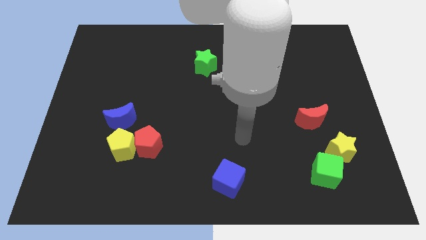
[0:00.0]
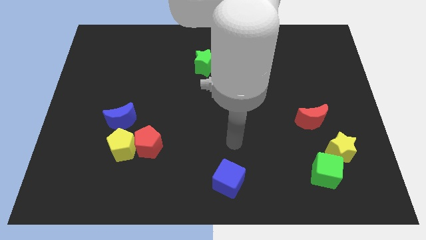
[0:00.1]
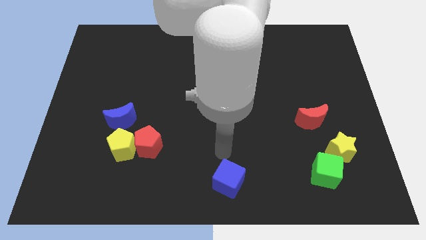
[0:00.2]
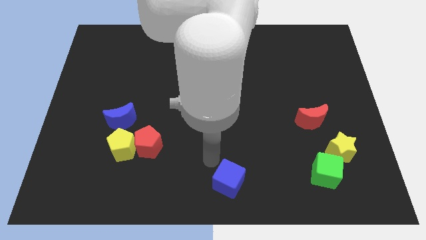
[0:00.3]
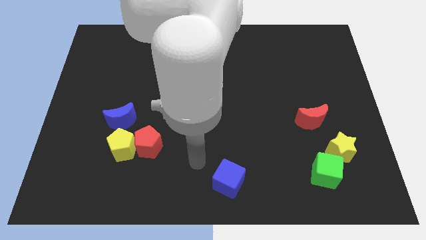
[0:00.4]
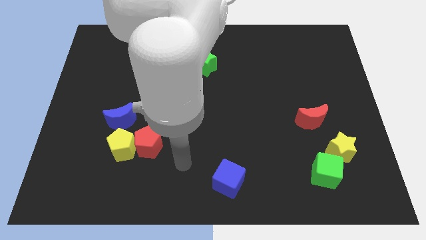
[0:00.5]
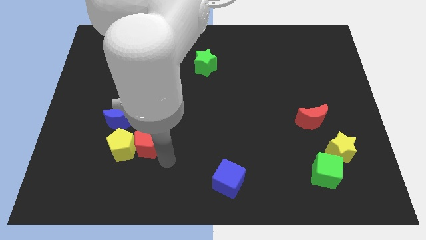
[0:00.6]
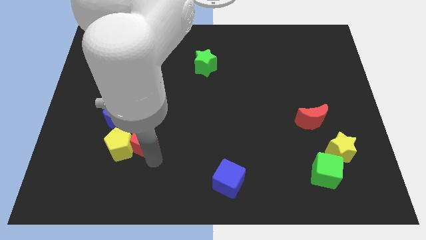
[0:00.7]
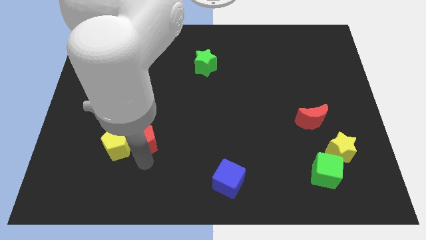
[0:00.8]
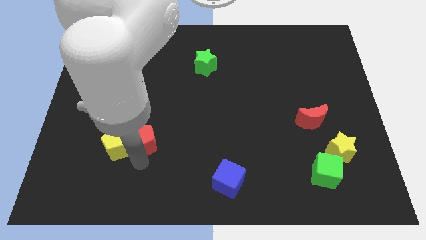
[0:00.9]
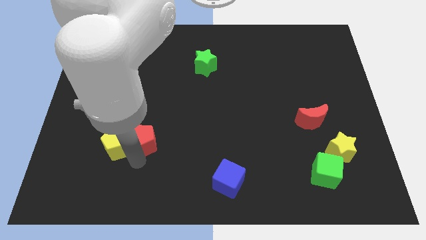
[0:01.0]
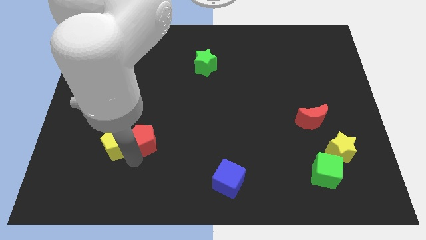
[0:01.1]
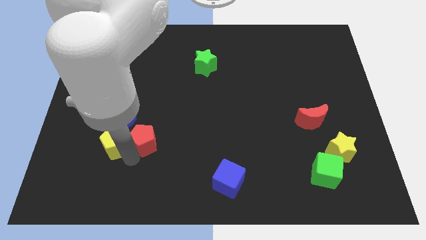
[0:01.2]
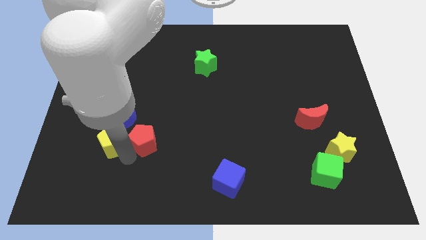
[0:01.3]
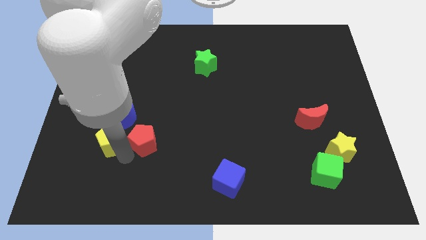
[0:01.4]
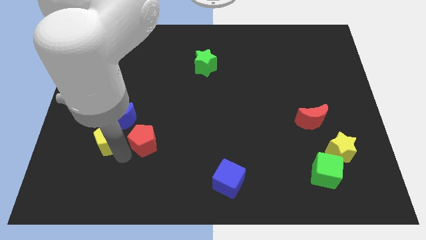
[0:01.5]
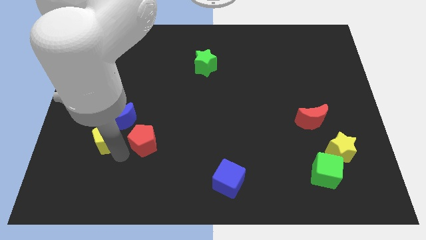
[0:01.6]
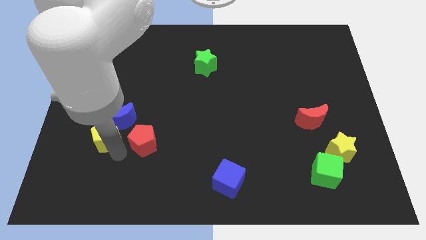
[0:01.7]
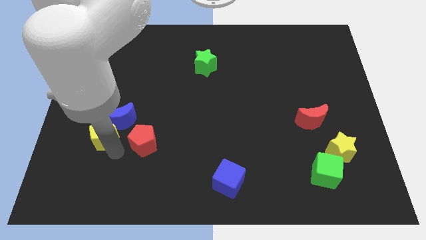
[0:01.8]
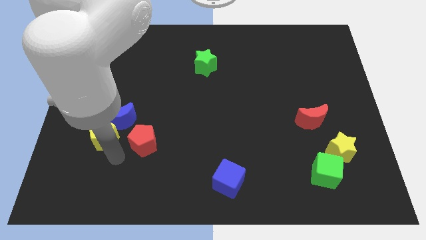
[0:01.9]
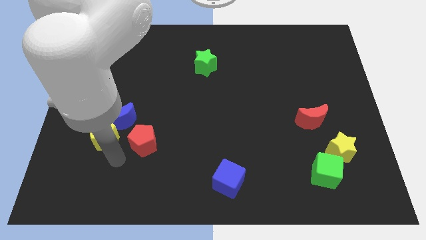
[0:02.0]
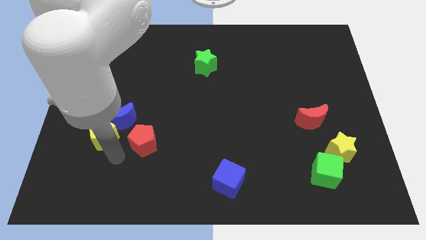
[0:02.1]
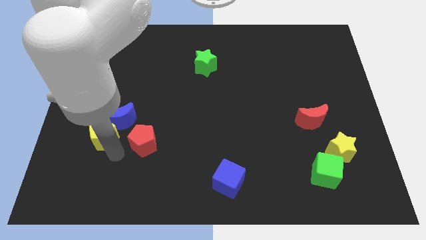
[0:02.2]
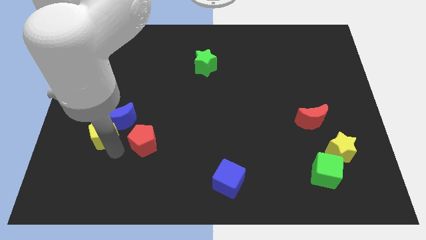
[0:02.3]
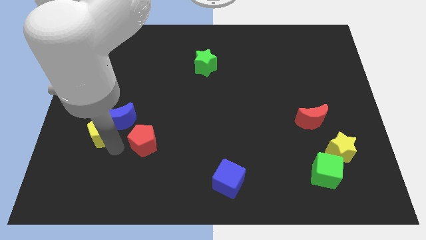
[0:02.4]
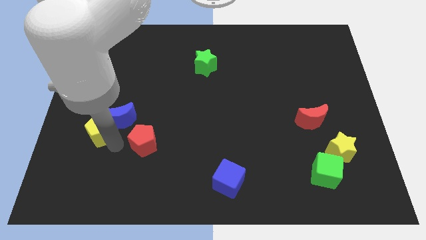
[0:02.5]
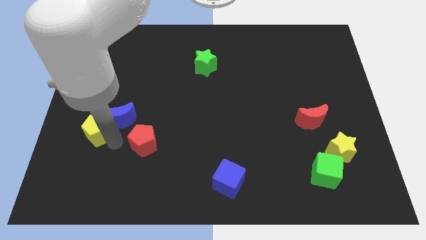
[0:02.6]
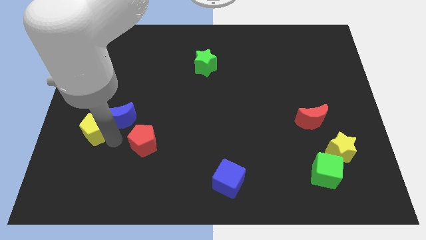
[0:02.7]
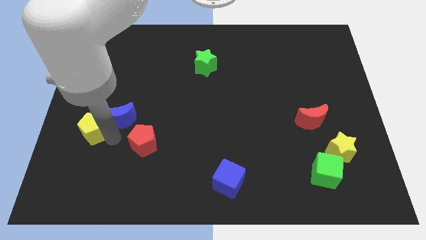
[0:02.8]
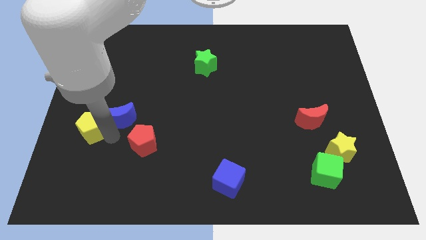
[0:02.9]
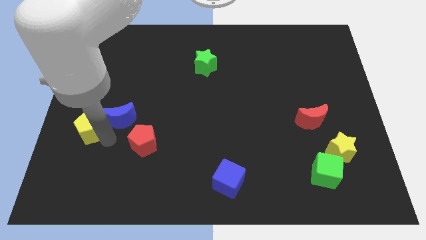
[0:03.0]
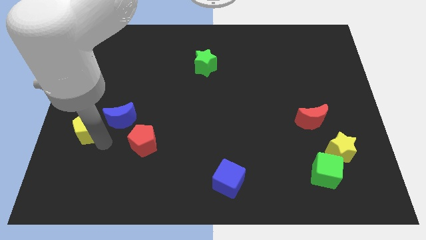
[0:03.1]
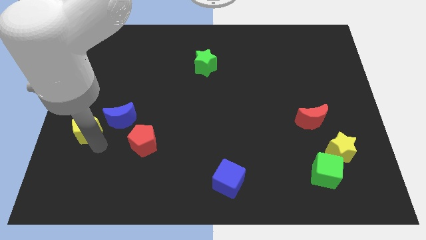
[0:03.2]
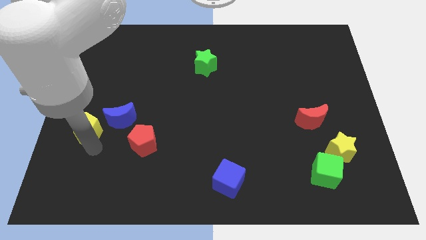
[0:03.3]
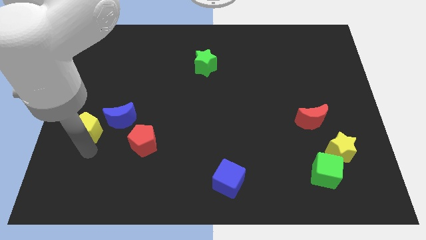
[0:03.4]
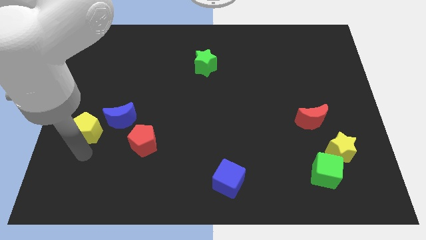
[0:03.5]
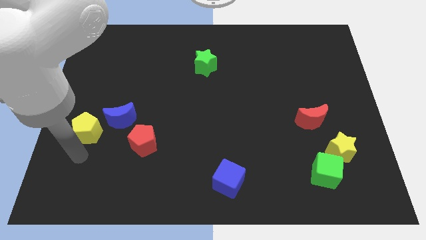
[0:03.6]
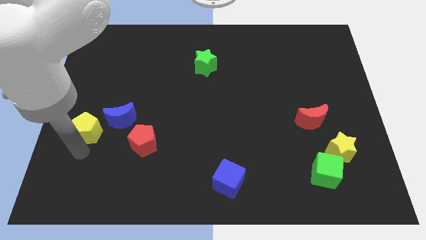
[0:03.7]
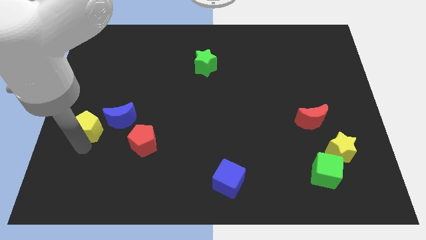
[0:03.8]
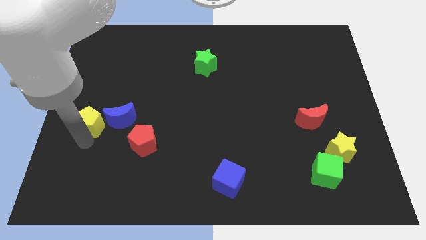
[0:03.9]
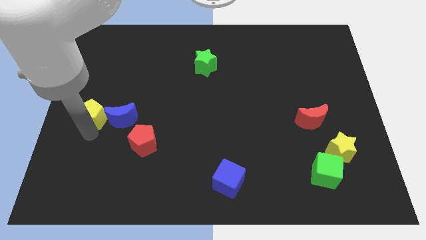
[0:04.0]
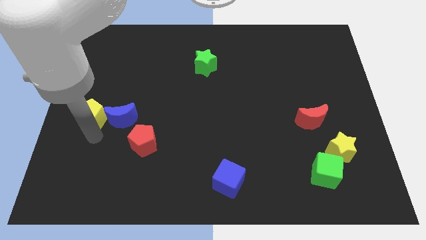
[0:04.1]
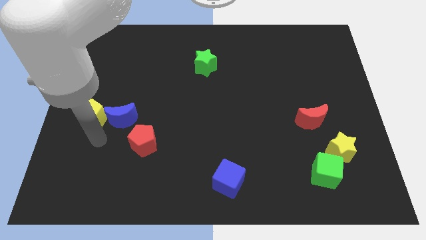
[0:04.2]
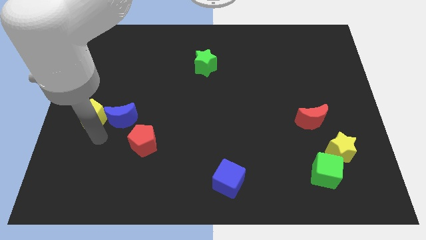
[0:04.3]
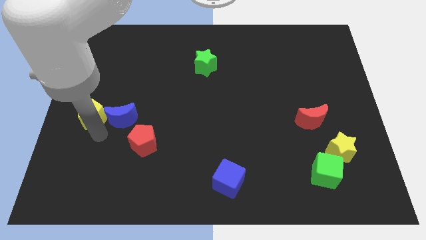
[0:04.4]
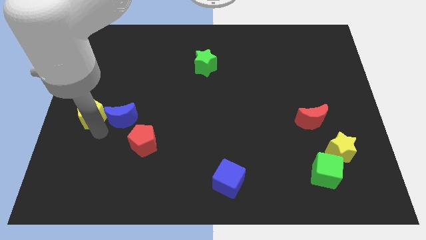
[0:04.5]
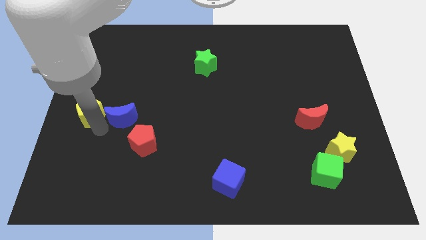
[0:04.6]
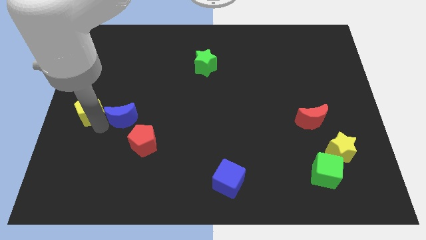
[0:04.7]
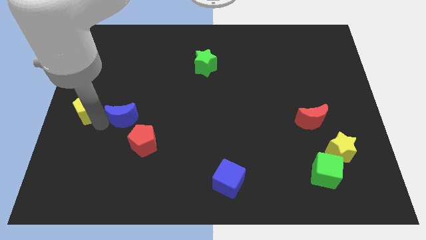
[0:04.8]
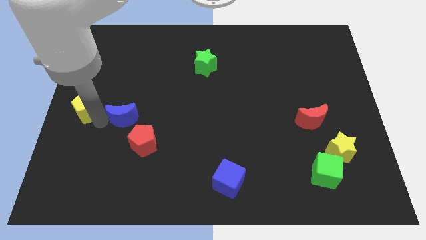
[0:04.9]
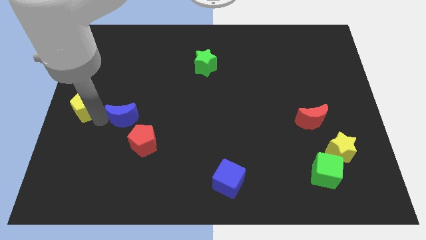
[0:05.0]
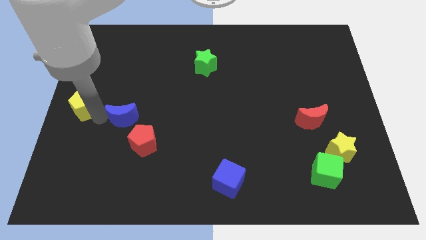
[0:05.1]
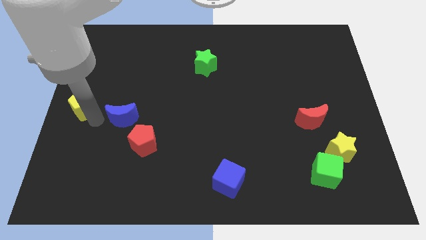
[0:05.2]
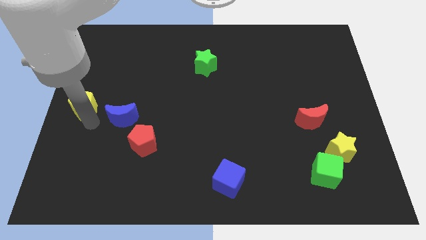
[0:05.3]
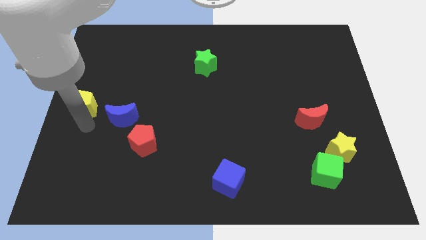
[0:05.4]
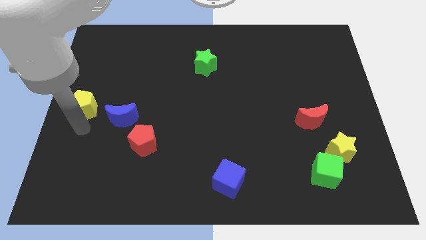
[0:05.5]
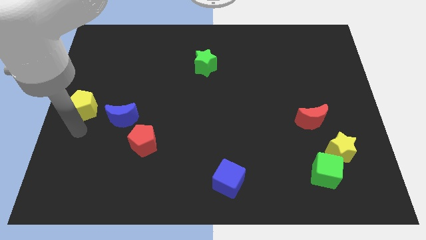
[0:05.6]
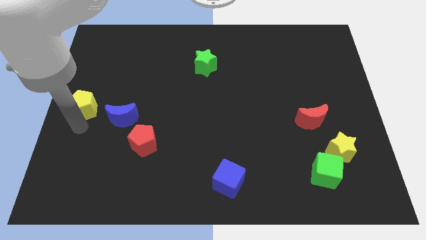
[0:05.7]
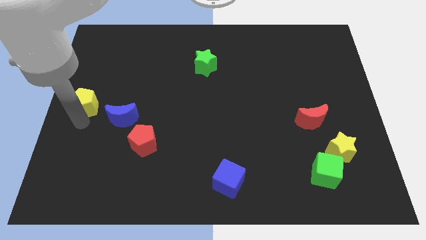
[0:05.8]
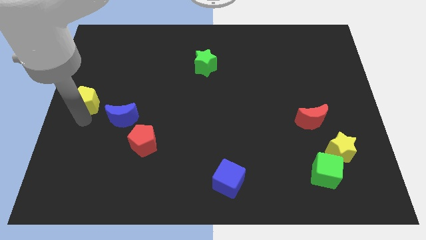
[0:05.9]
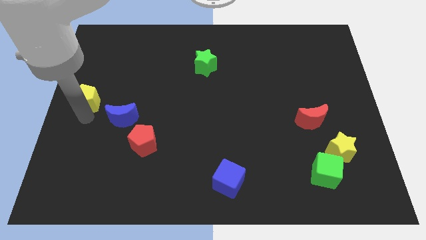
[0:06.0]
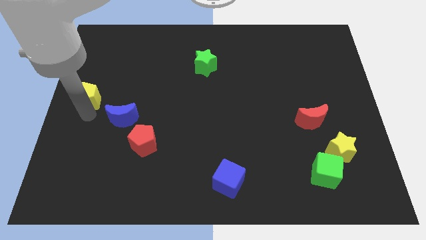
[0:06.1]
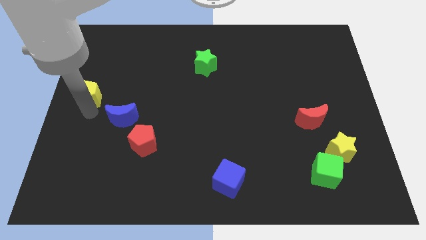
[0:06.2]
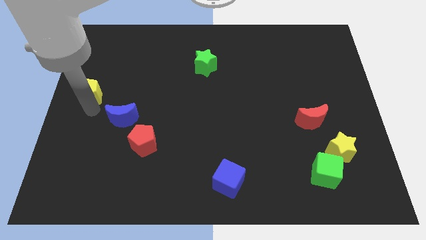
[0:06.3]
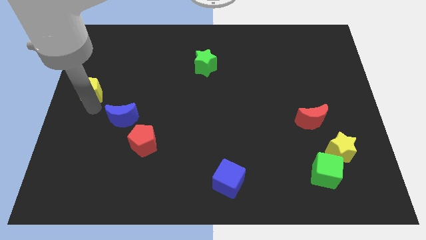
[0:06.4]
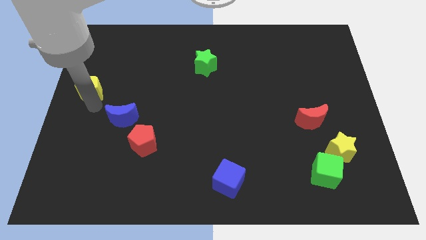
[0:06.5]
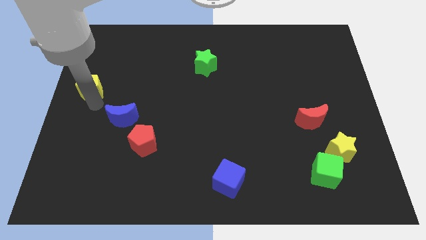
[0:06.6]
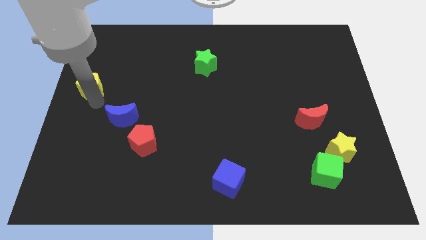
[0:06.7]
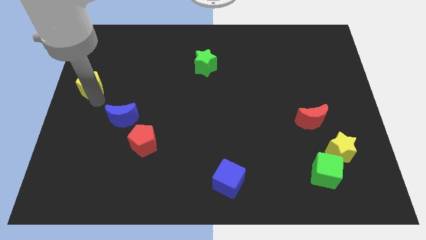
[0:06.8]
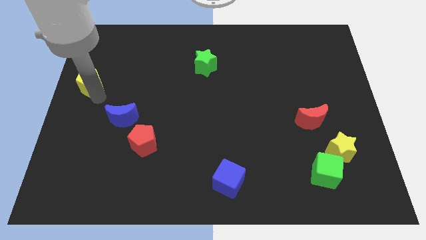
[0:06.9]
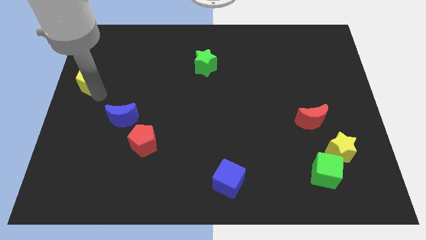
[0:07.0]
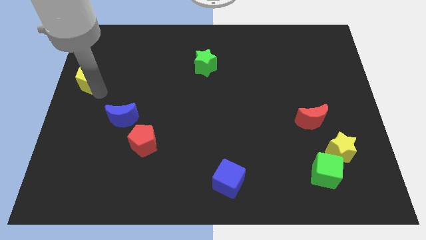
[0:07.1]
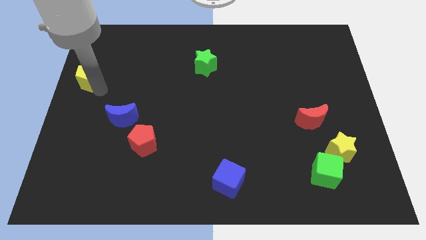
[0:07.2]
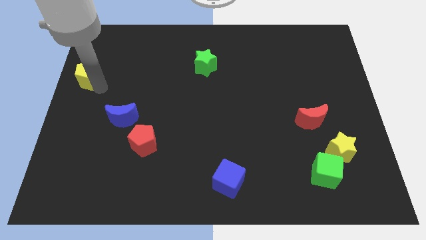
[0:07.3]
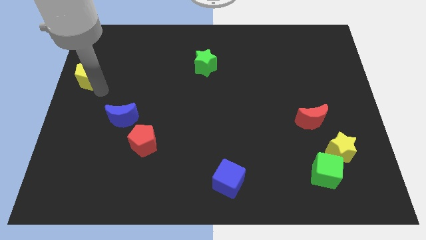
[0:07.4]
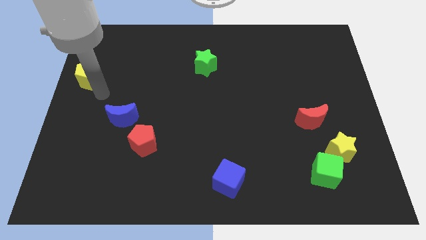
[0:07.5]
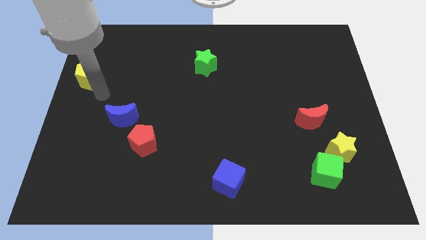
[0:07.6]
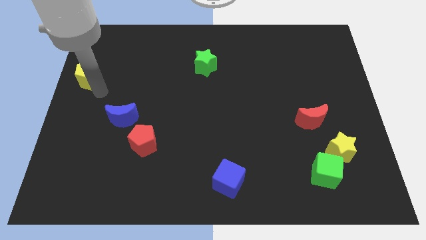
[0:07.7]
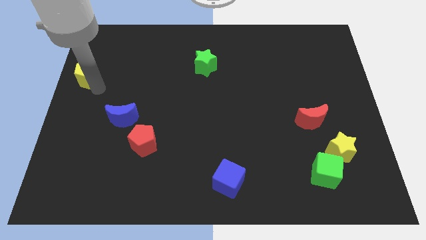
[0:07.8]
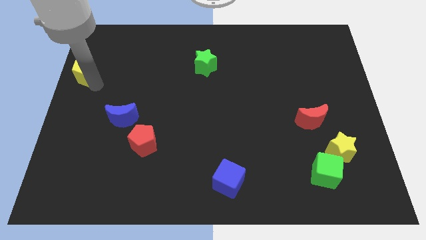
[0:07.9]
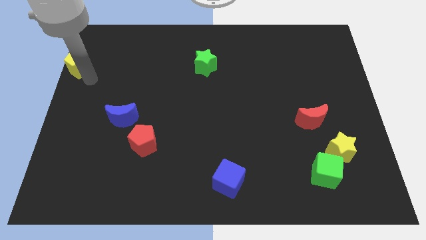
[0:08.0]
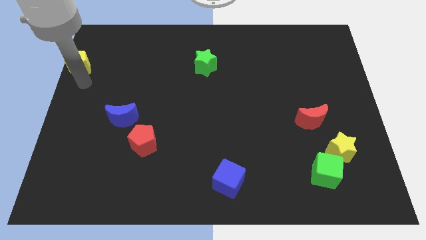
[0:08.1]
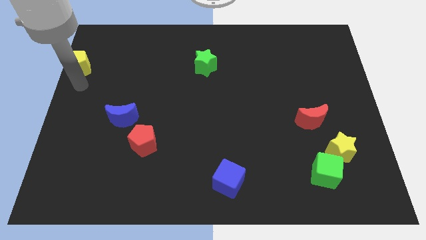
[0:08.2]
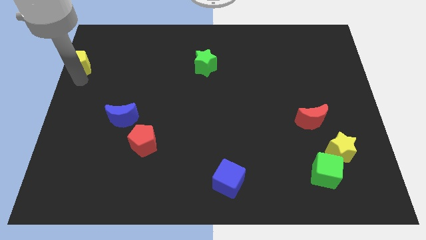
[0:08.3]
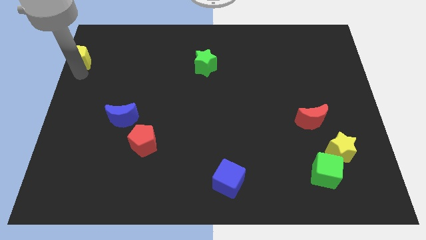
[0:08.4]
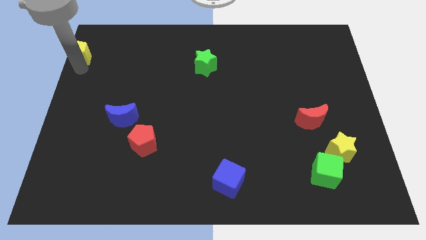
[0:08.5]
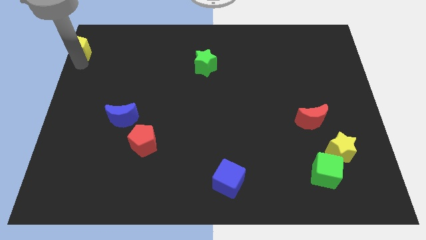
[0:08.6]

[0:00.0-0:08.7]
put the yellow pentagon to the top left of the board
